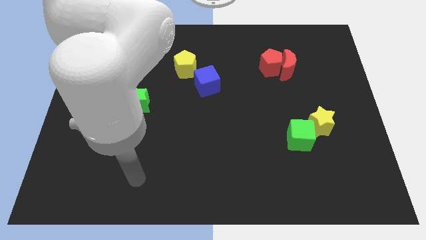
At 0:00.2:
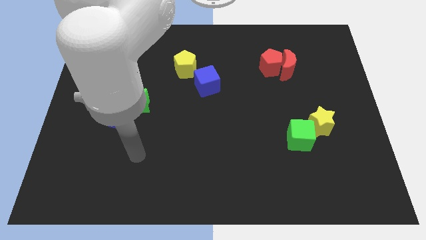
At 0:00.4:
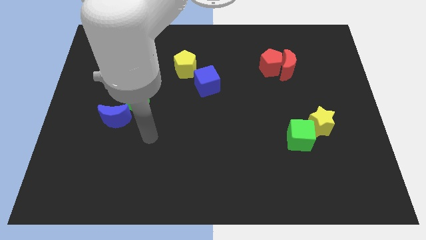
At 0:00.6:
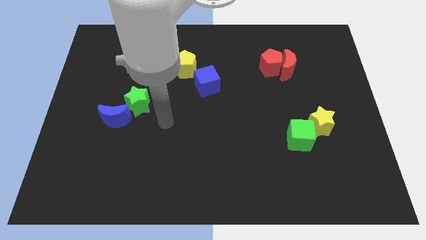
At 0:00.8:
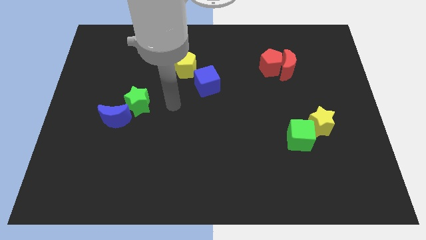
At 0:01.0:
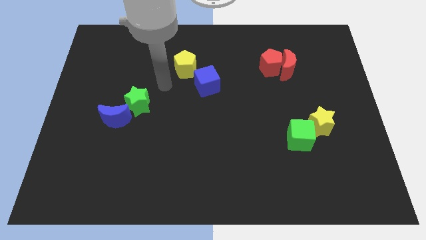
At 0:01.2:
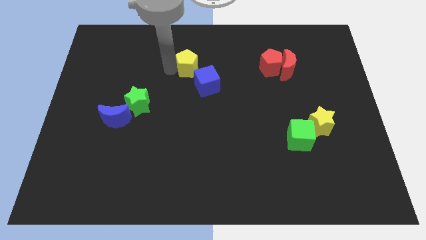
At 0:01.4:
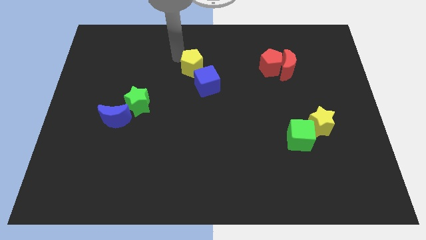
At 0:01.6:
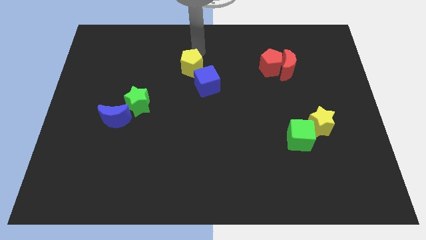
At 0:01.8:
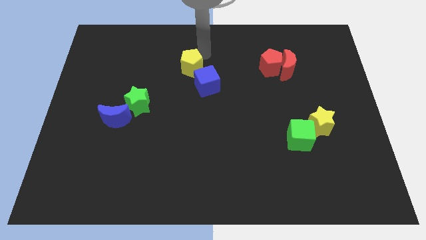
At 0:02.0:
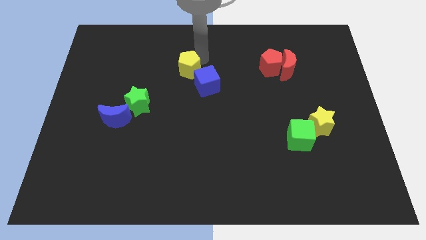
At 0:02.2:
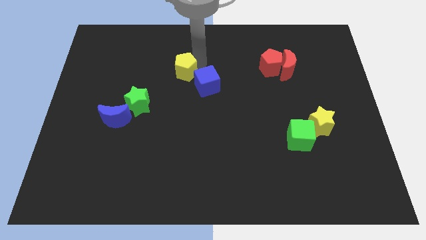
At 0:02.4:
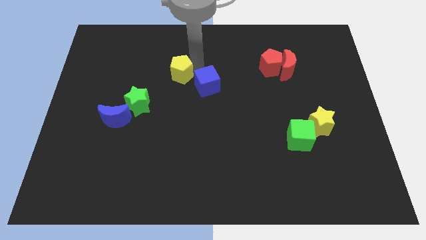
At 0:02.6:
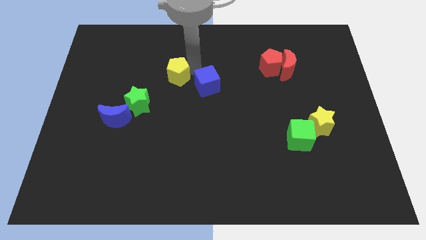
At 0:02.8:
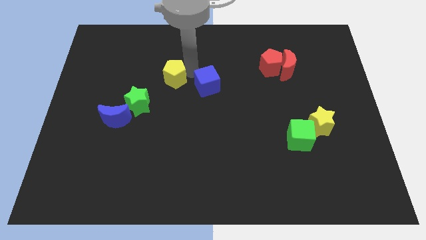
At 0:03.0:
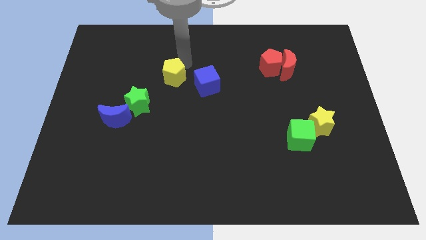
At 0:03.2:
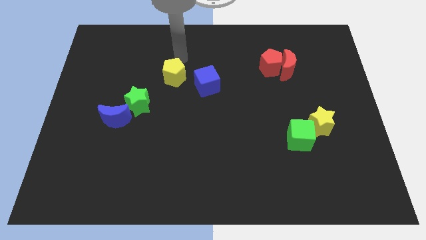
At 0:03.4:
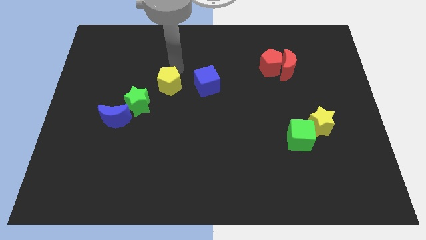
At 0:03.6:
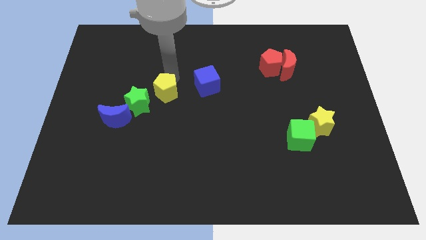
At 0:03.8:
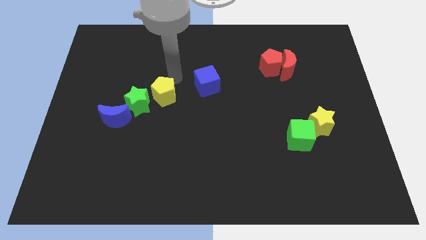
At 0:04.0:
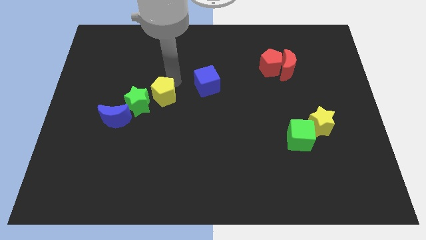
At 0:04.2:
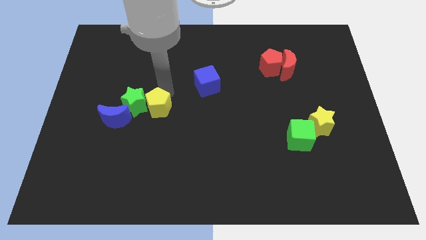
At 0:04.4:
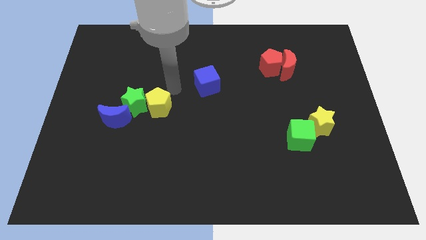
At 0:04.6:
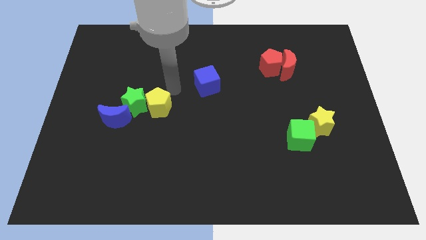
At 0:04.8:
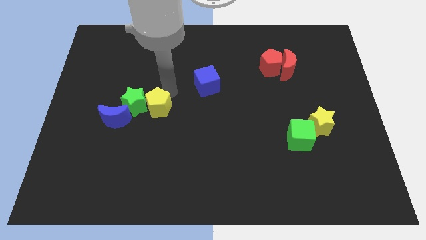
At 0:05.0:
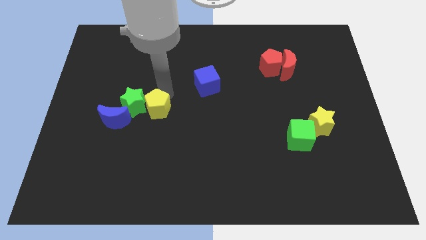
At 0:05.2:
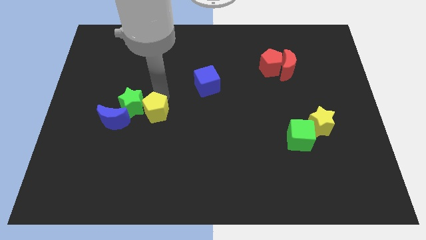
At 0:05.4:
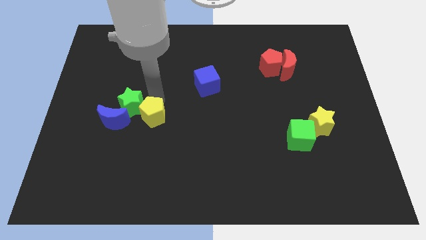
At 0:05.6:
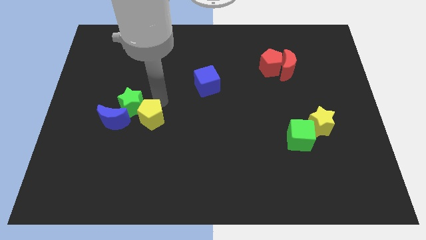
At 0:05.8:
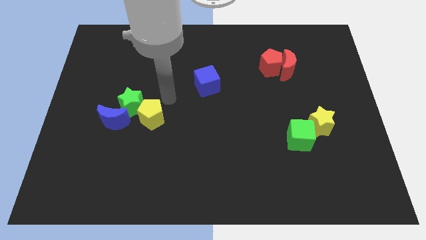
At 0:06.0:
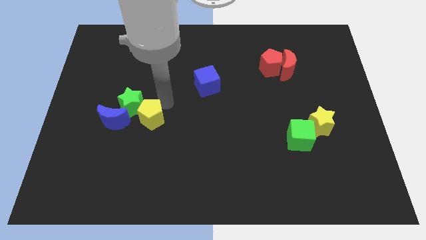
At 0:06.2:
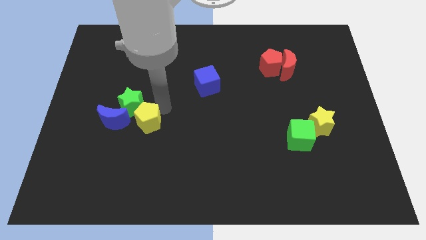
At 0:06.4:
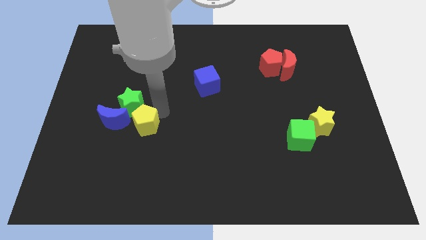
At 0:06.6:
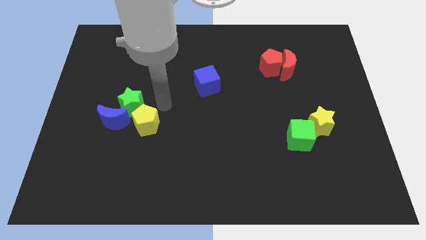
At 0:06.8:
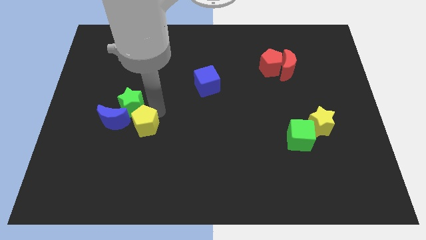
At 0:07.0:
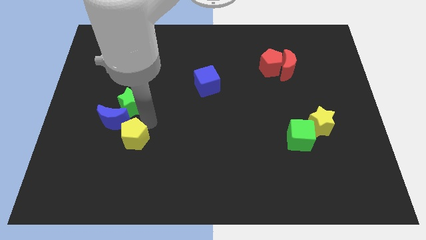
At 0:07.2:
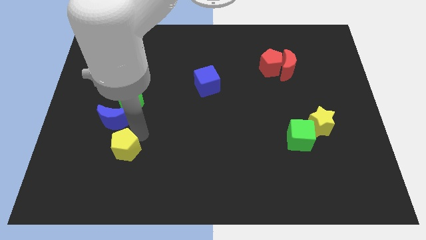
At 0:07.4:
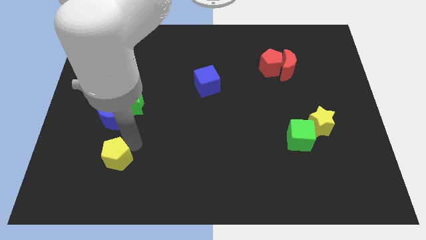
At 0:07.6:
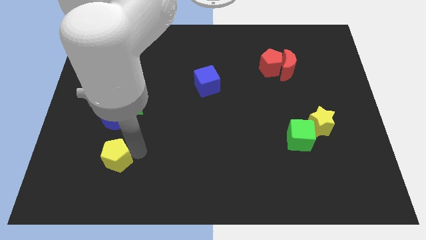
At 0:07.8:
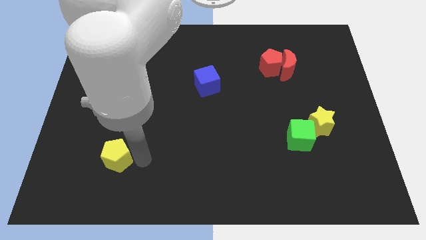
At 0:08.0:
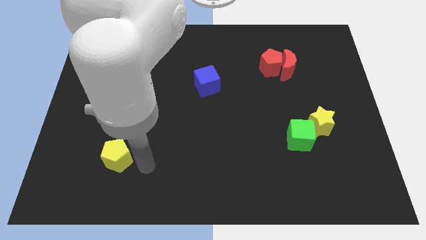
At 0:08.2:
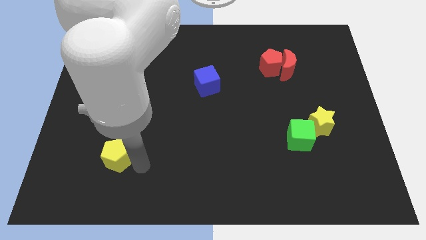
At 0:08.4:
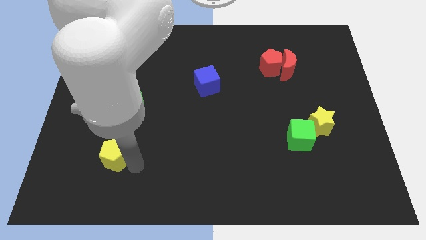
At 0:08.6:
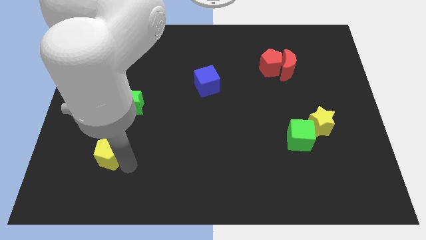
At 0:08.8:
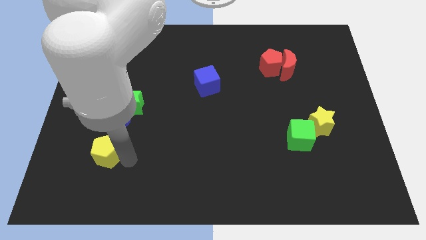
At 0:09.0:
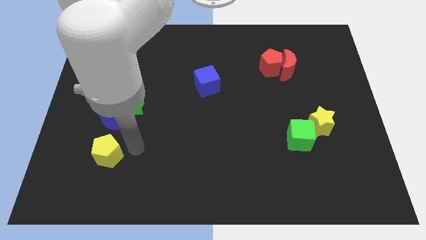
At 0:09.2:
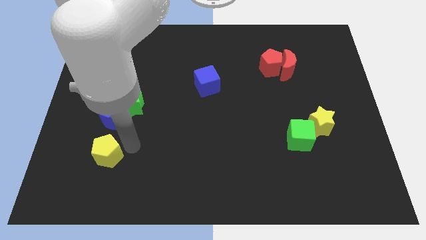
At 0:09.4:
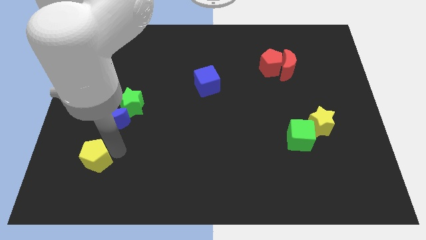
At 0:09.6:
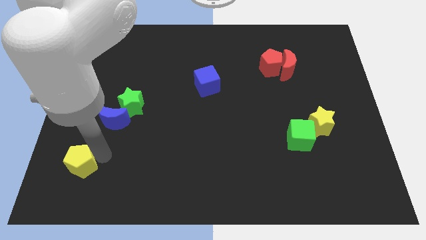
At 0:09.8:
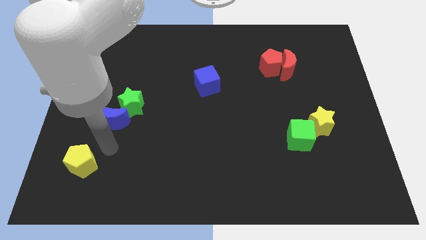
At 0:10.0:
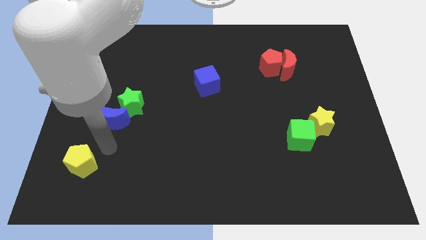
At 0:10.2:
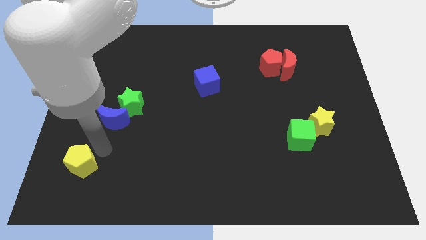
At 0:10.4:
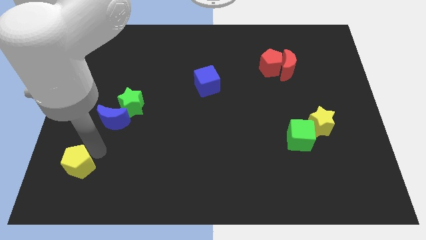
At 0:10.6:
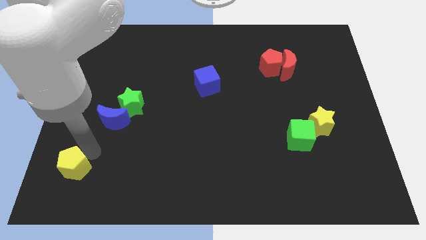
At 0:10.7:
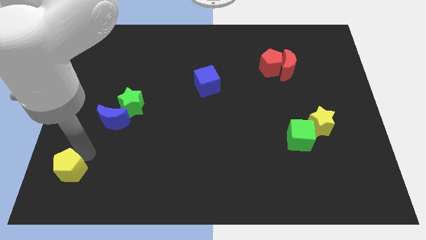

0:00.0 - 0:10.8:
put the yellow pentagon to the bottom left

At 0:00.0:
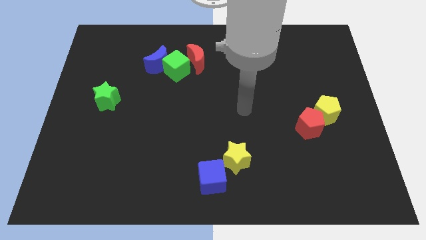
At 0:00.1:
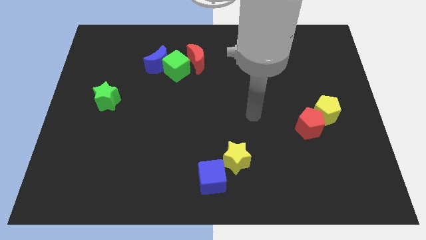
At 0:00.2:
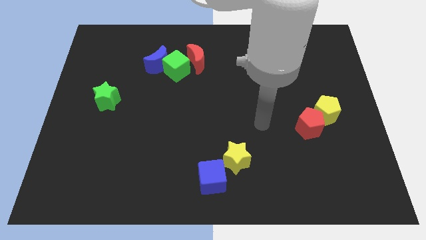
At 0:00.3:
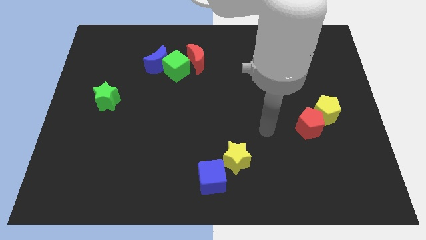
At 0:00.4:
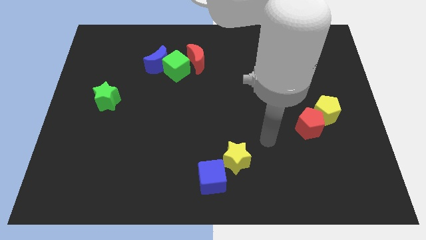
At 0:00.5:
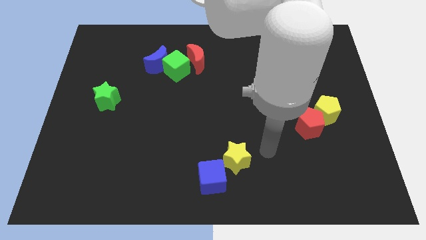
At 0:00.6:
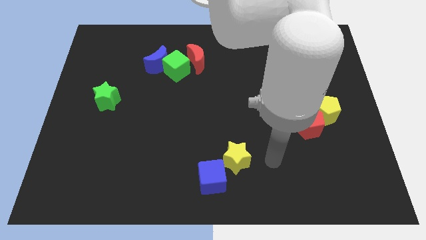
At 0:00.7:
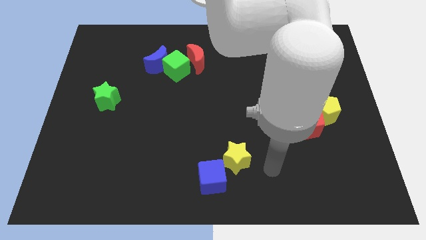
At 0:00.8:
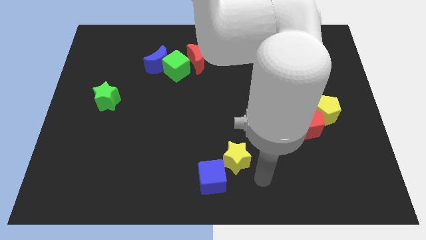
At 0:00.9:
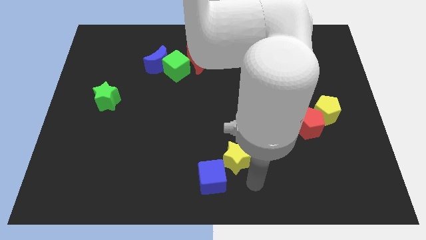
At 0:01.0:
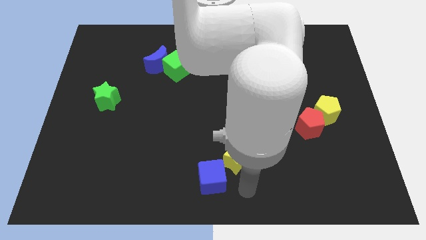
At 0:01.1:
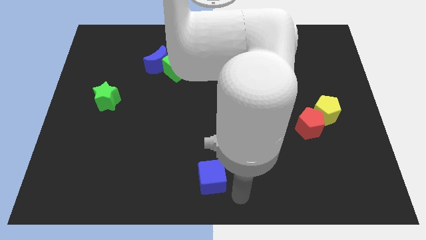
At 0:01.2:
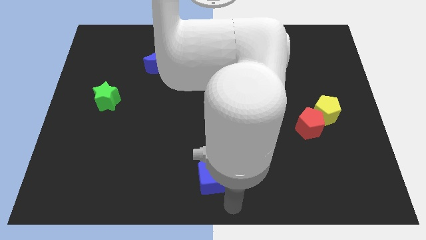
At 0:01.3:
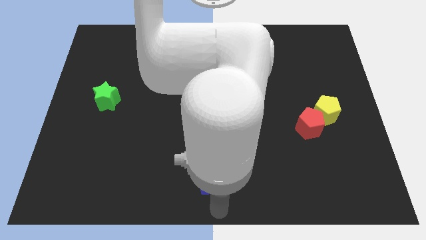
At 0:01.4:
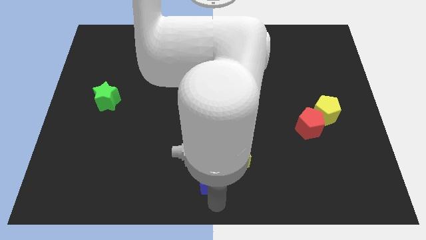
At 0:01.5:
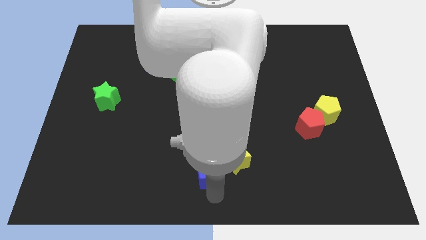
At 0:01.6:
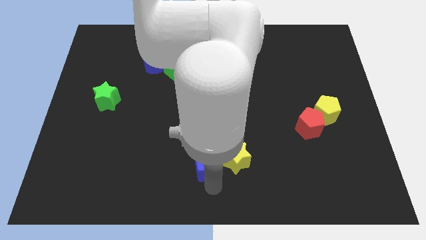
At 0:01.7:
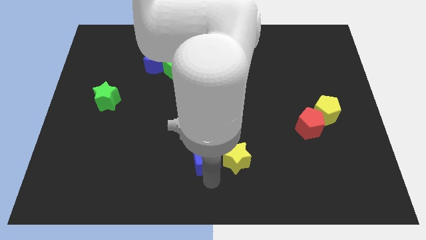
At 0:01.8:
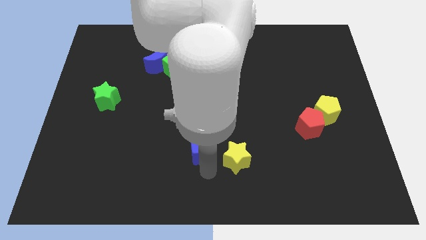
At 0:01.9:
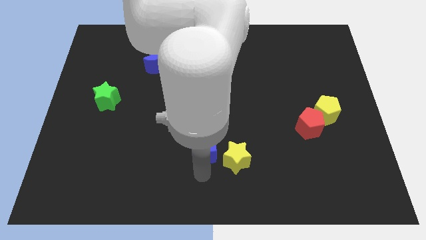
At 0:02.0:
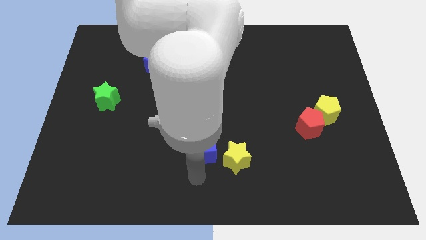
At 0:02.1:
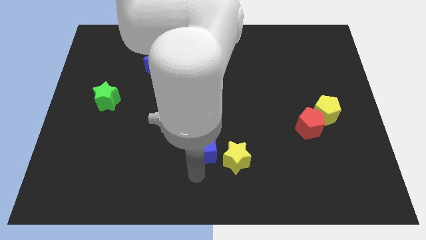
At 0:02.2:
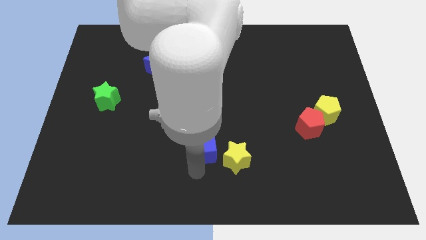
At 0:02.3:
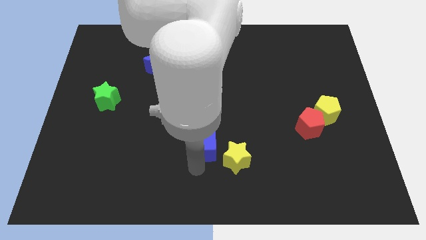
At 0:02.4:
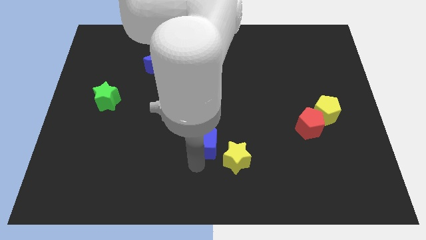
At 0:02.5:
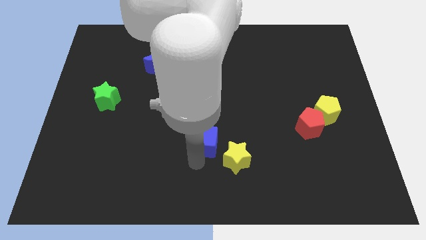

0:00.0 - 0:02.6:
put the blue cube to the middle of the board
